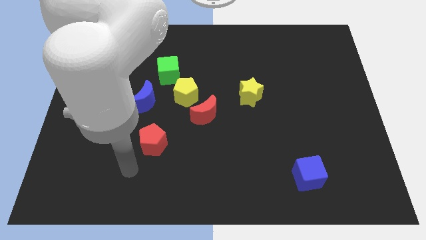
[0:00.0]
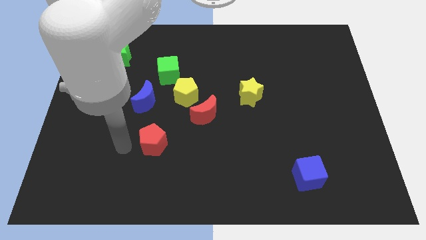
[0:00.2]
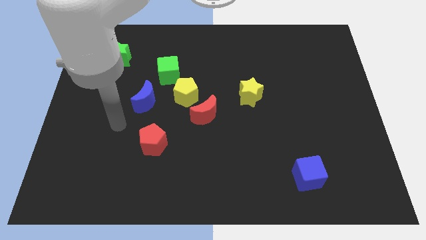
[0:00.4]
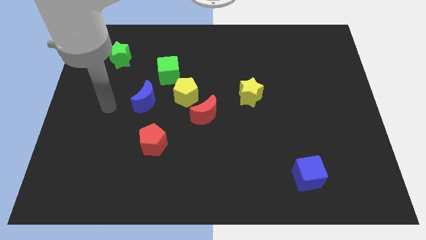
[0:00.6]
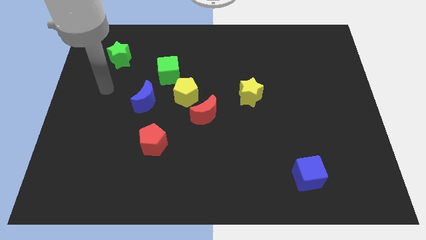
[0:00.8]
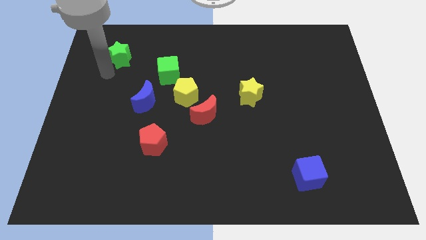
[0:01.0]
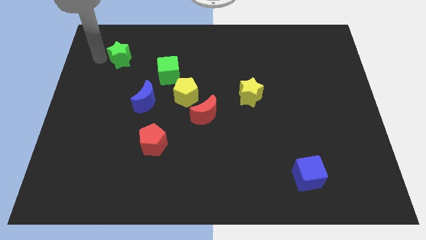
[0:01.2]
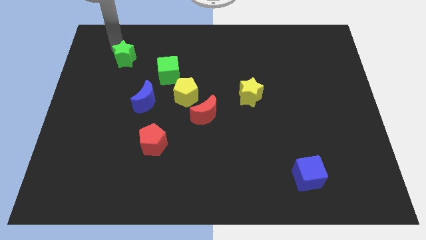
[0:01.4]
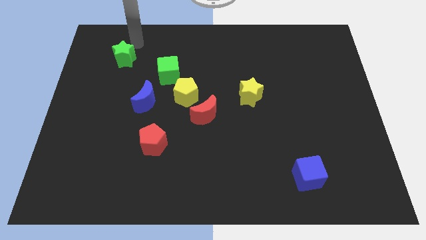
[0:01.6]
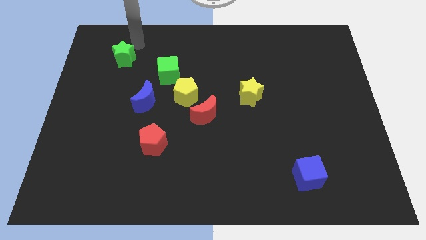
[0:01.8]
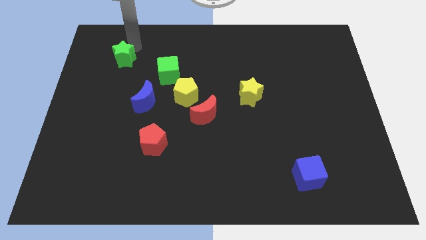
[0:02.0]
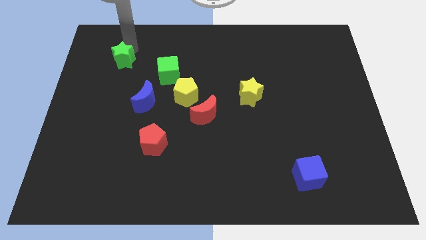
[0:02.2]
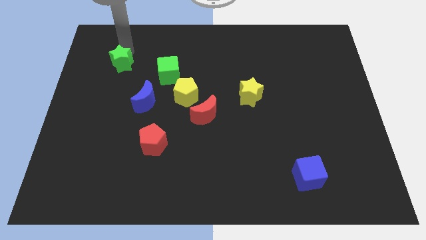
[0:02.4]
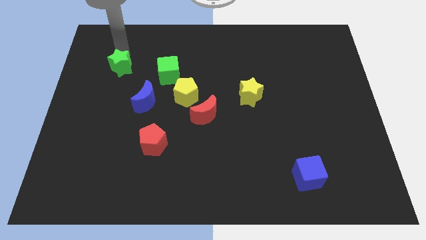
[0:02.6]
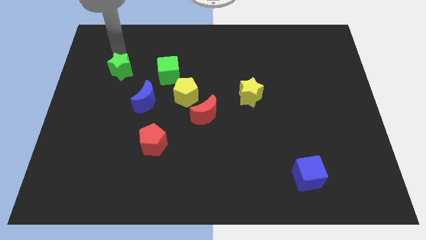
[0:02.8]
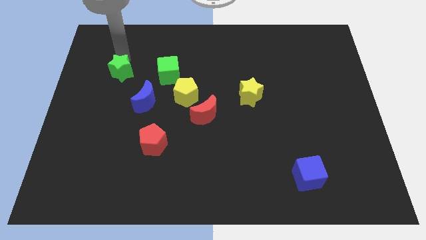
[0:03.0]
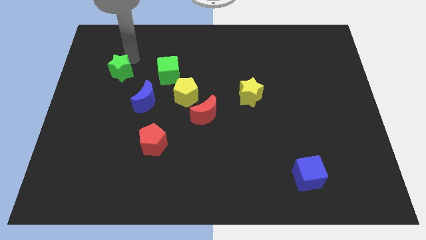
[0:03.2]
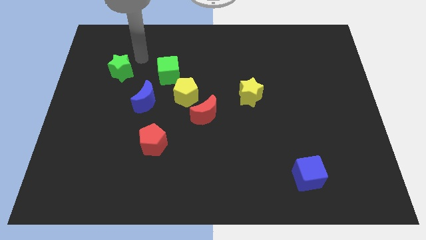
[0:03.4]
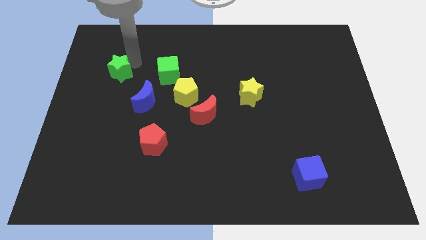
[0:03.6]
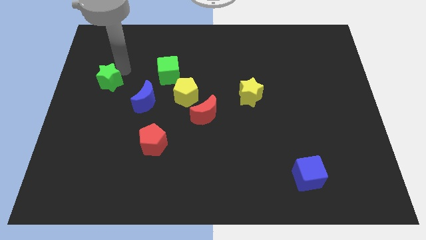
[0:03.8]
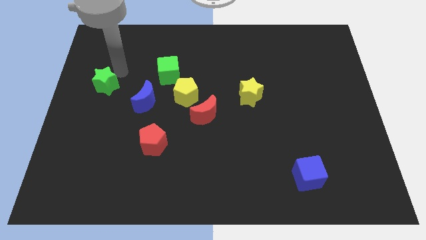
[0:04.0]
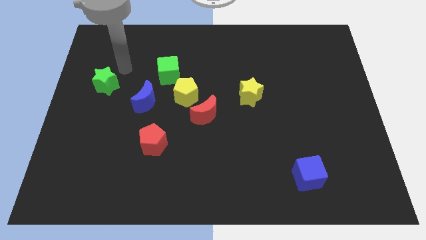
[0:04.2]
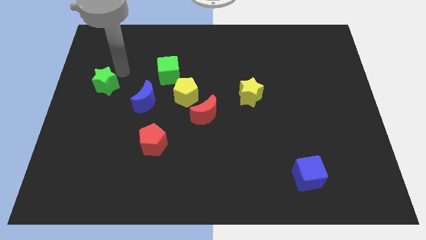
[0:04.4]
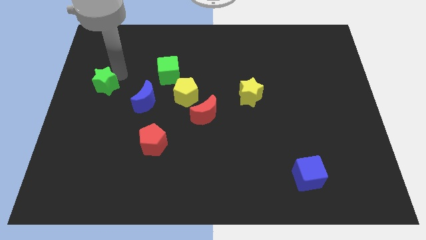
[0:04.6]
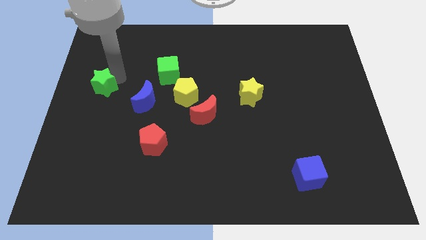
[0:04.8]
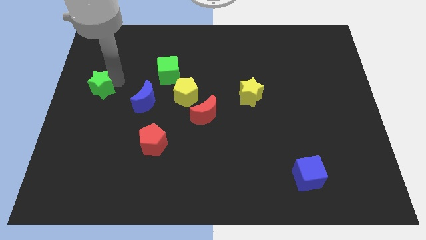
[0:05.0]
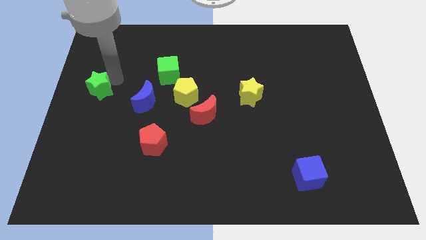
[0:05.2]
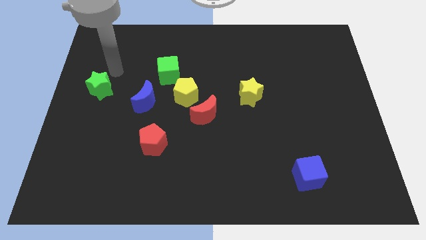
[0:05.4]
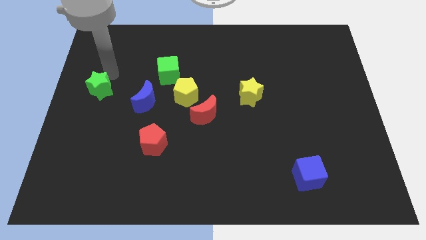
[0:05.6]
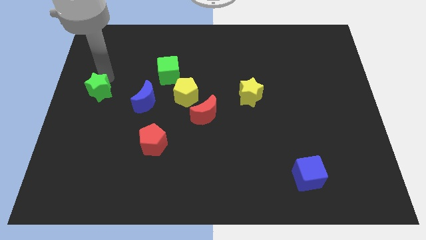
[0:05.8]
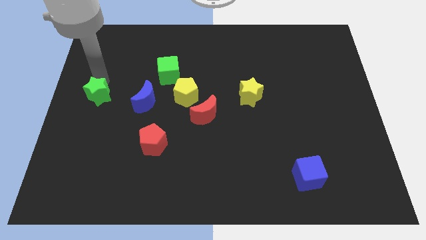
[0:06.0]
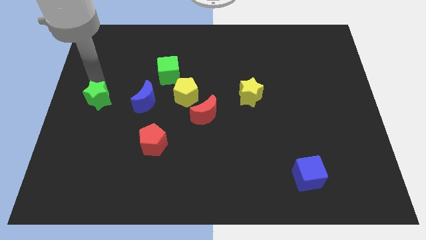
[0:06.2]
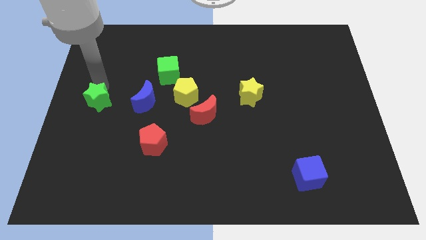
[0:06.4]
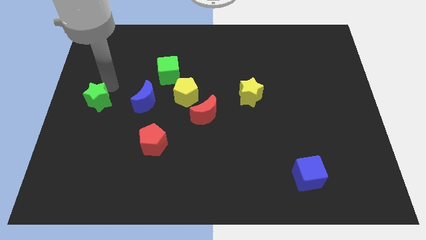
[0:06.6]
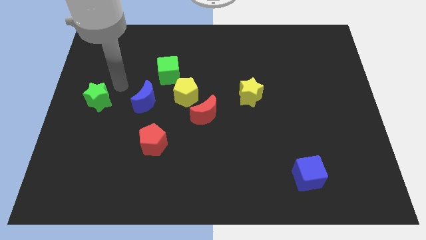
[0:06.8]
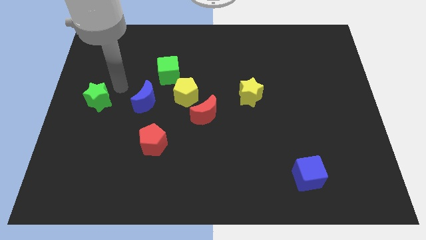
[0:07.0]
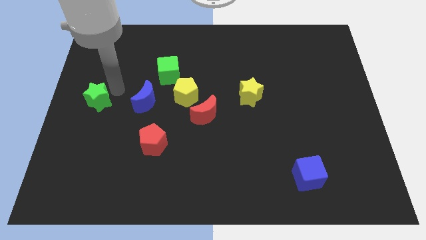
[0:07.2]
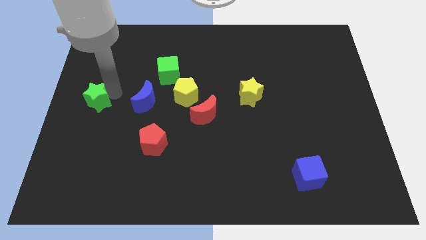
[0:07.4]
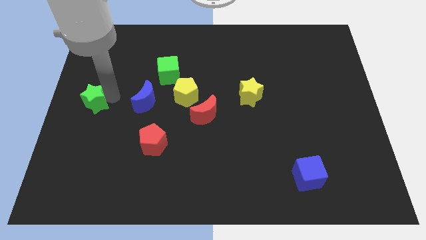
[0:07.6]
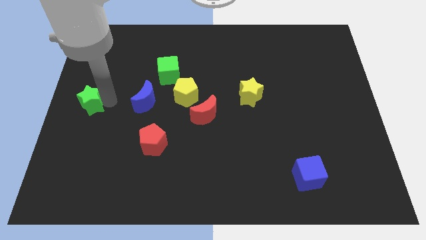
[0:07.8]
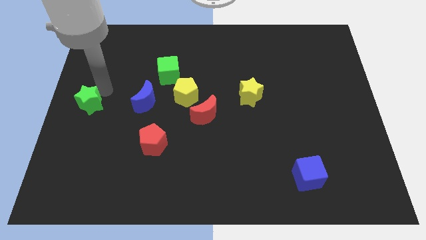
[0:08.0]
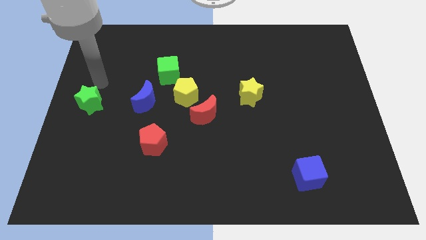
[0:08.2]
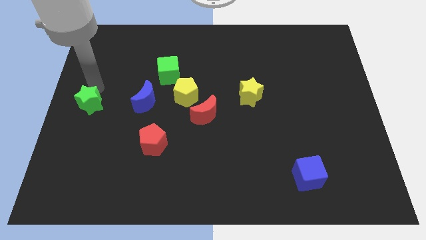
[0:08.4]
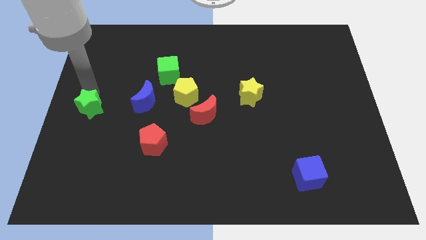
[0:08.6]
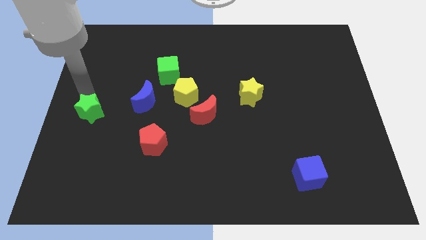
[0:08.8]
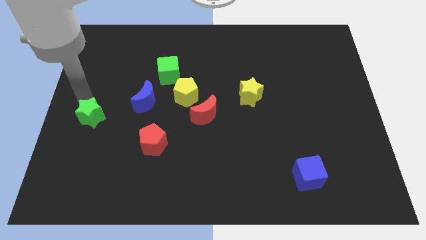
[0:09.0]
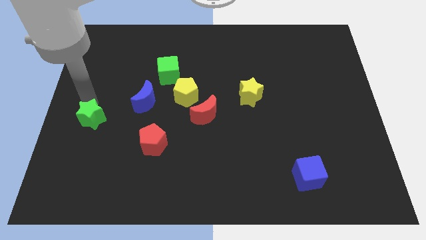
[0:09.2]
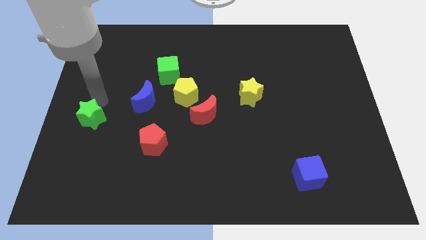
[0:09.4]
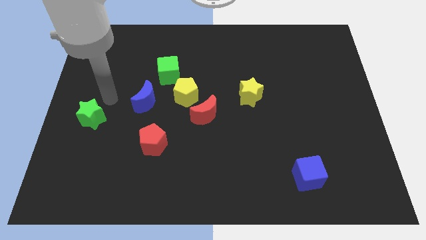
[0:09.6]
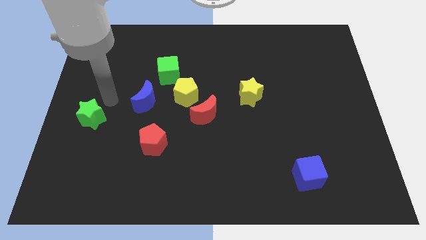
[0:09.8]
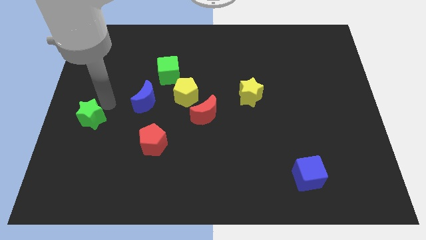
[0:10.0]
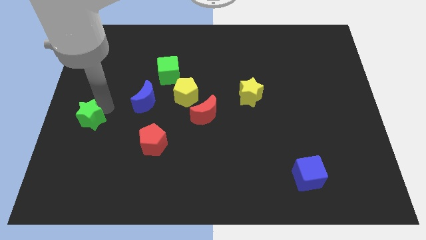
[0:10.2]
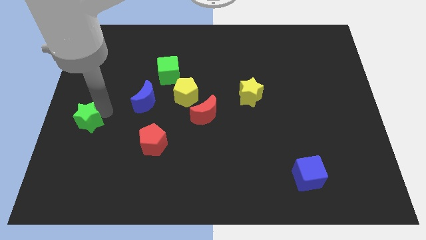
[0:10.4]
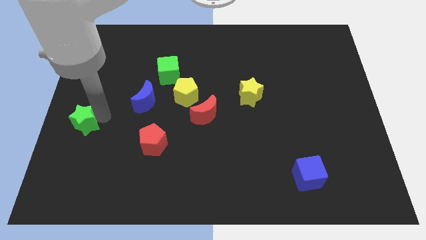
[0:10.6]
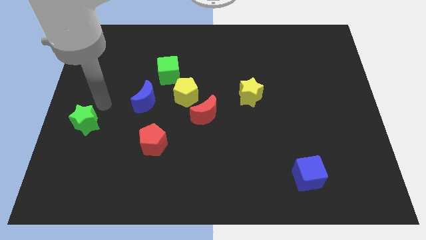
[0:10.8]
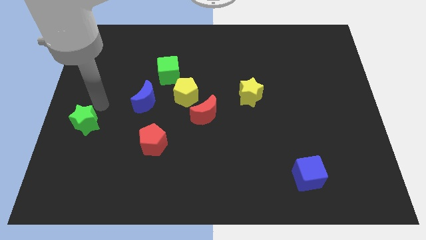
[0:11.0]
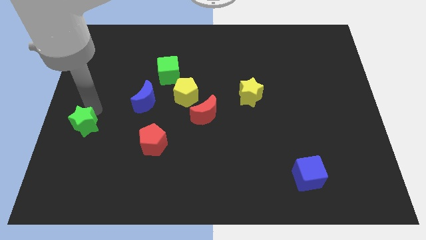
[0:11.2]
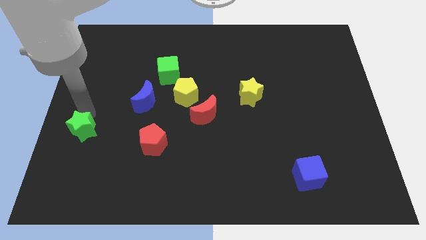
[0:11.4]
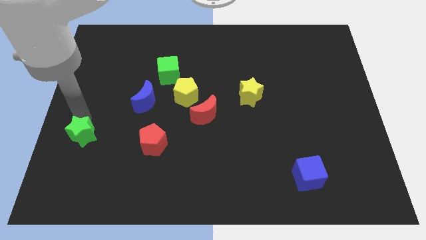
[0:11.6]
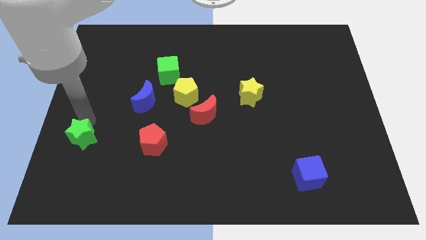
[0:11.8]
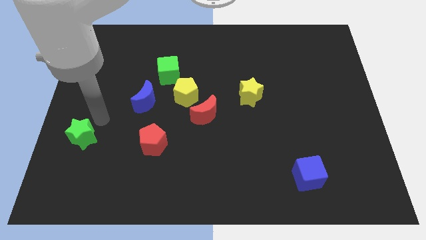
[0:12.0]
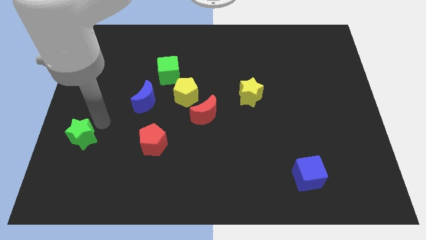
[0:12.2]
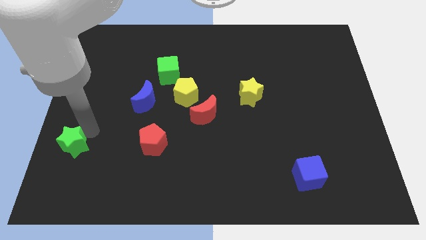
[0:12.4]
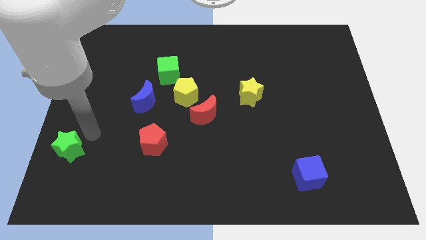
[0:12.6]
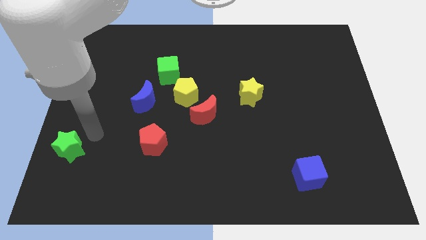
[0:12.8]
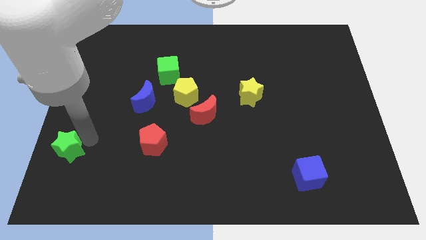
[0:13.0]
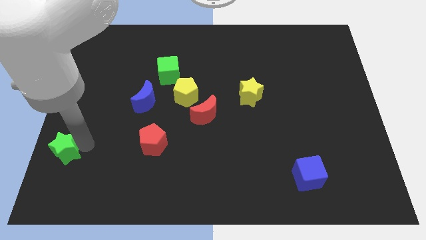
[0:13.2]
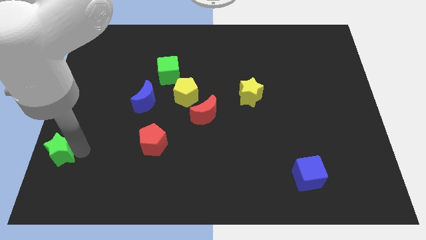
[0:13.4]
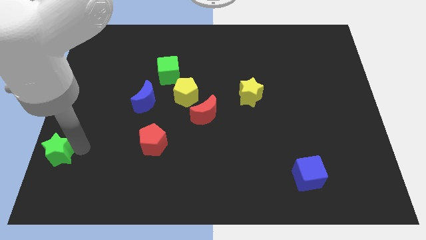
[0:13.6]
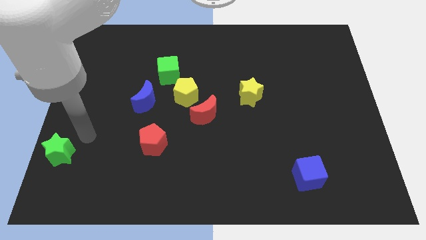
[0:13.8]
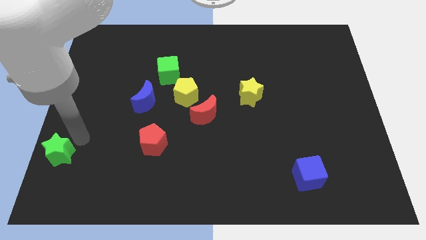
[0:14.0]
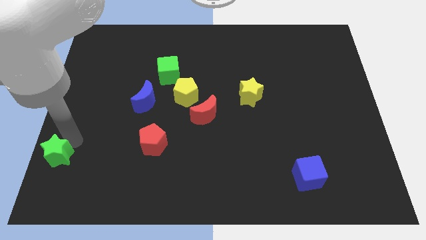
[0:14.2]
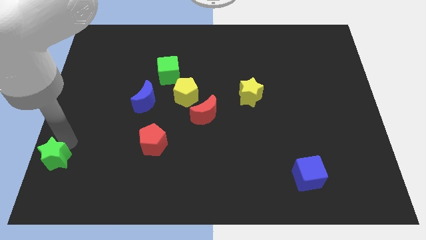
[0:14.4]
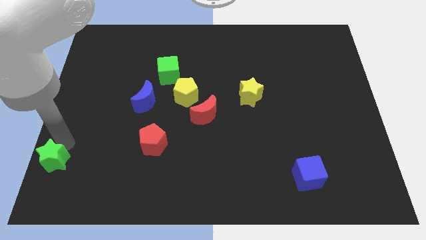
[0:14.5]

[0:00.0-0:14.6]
put the green star to the bottom left of the board
